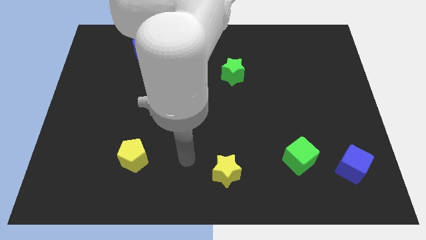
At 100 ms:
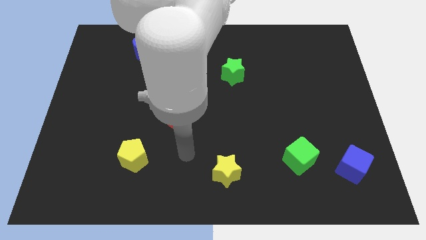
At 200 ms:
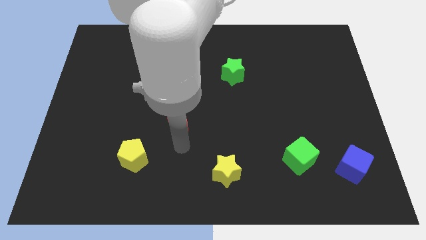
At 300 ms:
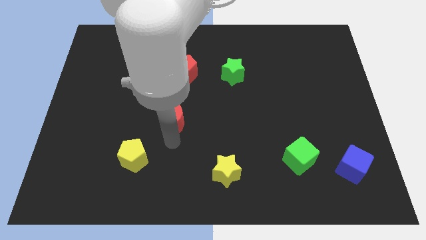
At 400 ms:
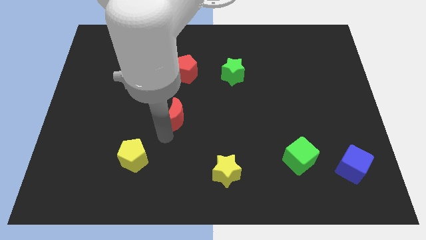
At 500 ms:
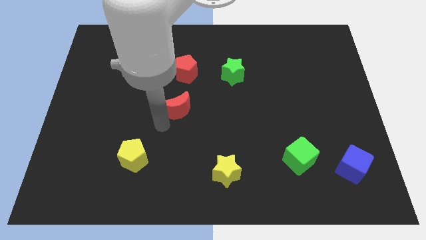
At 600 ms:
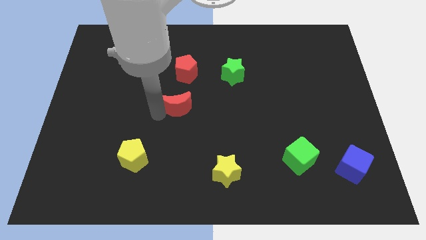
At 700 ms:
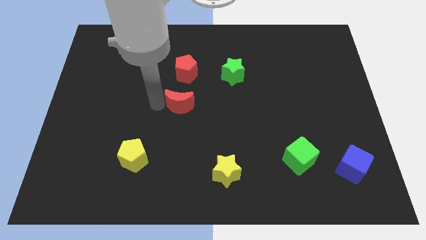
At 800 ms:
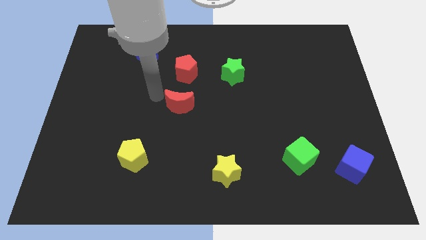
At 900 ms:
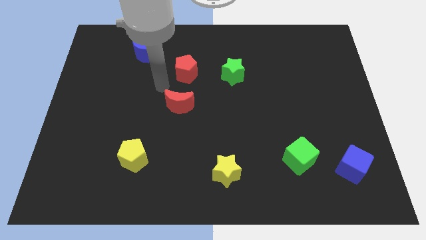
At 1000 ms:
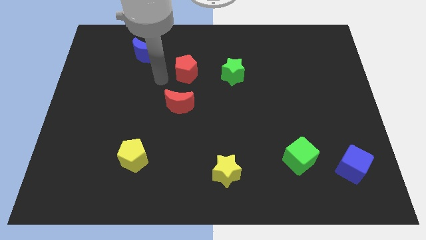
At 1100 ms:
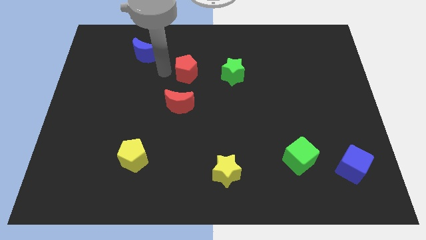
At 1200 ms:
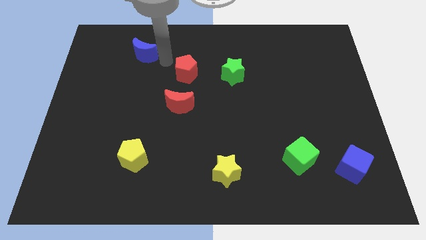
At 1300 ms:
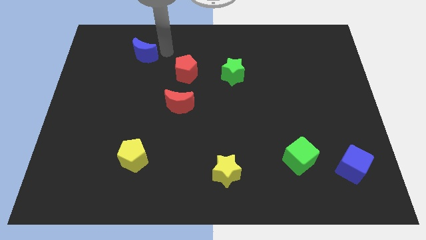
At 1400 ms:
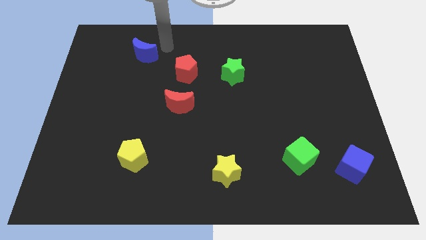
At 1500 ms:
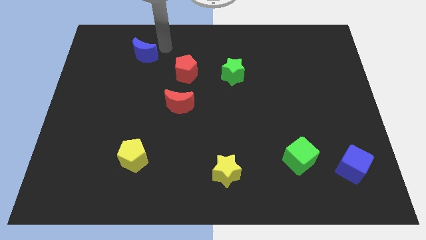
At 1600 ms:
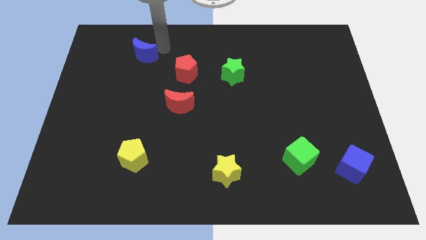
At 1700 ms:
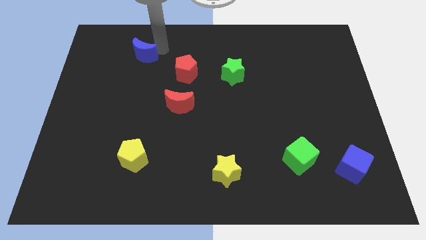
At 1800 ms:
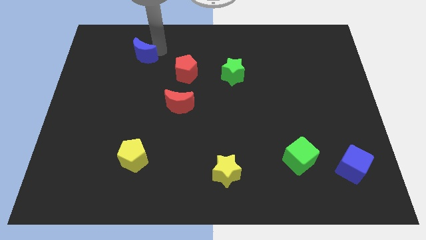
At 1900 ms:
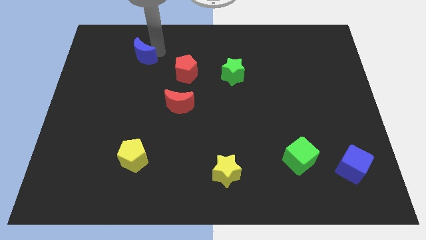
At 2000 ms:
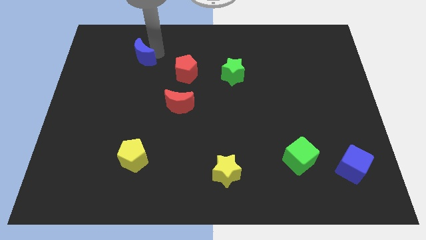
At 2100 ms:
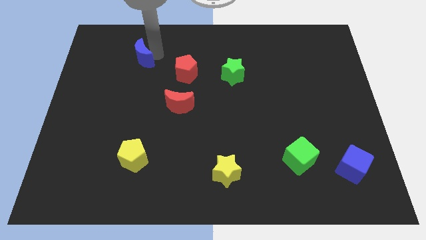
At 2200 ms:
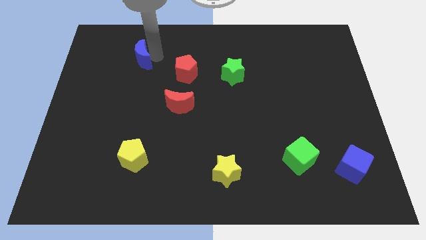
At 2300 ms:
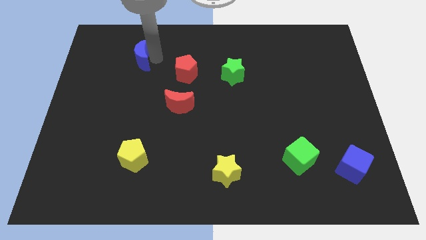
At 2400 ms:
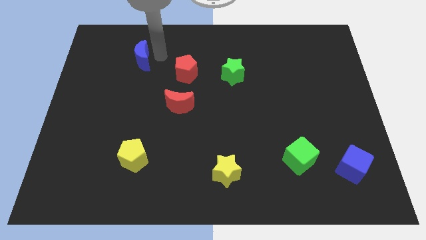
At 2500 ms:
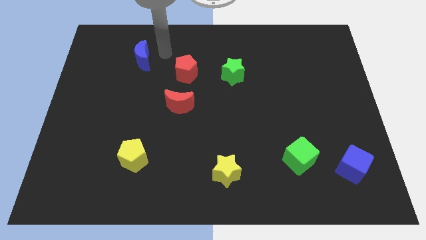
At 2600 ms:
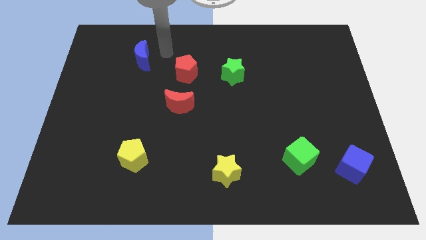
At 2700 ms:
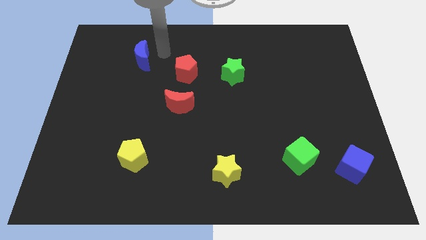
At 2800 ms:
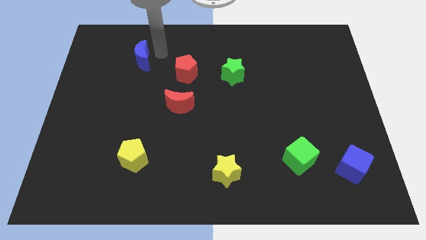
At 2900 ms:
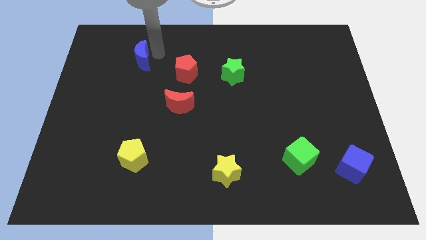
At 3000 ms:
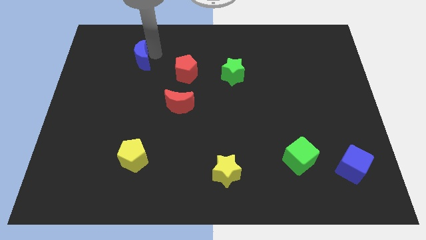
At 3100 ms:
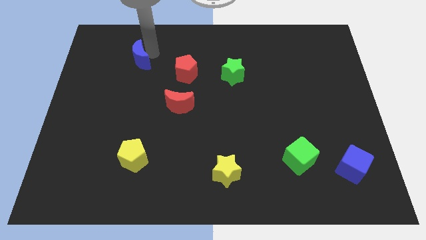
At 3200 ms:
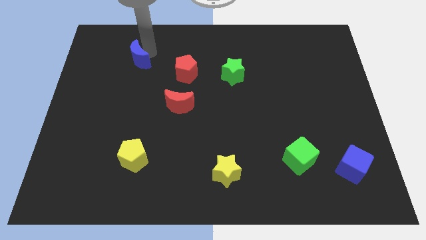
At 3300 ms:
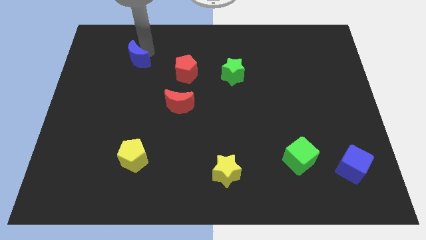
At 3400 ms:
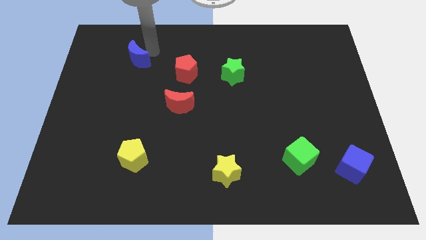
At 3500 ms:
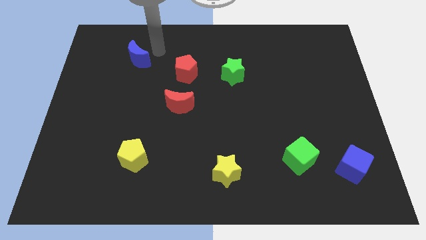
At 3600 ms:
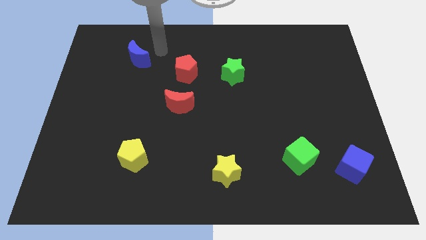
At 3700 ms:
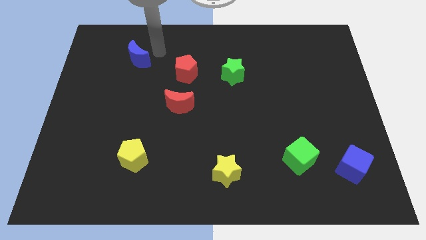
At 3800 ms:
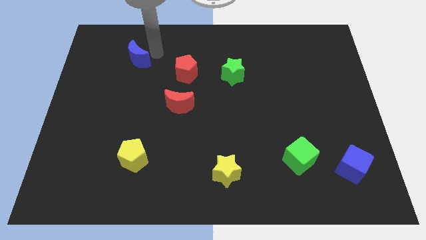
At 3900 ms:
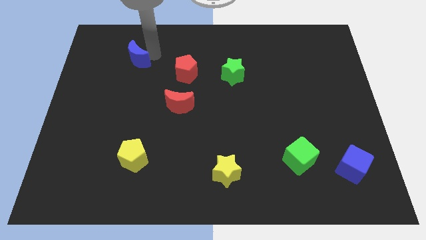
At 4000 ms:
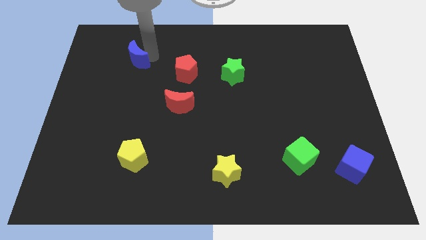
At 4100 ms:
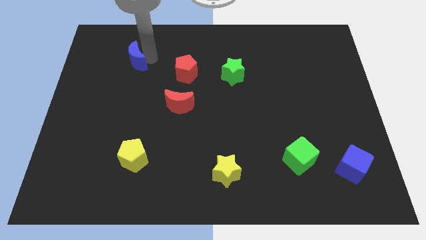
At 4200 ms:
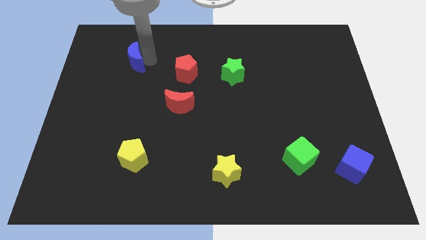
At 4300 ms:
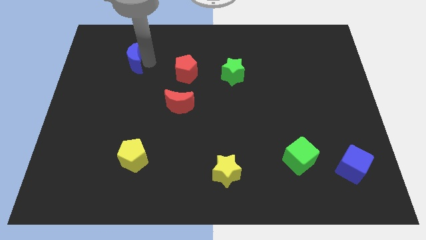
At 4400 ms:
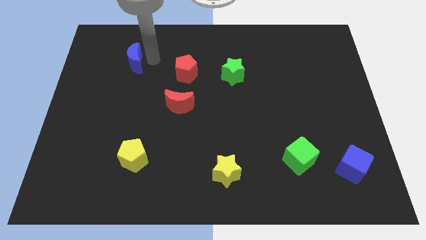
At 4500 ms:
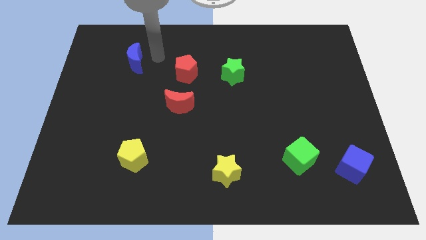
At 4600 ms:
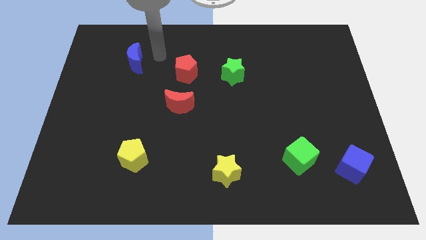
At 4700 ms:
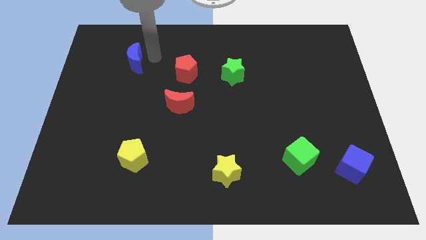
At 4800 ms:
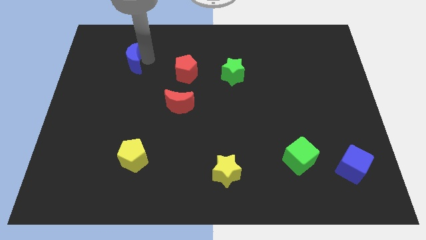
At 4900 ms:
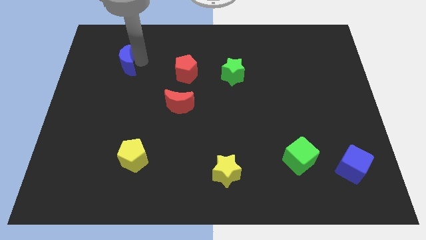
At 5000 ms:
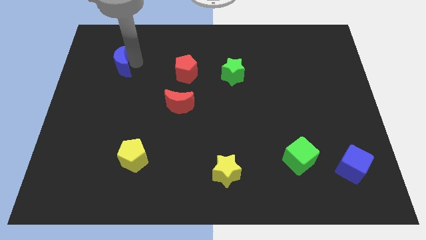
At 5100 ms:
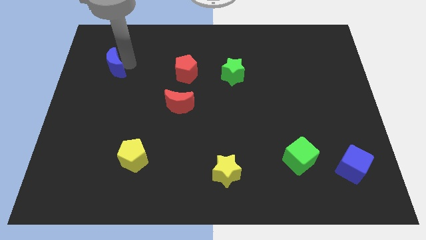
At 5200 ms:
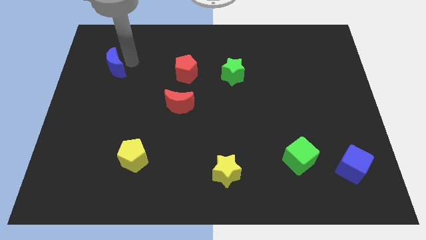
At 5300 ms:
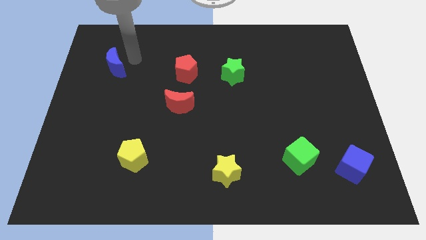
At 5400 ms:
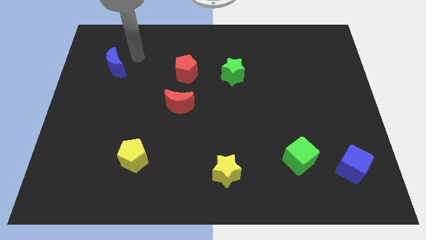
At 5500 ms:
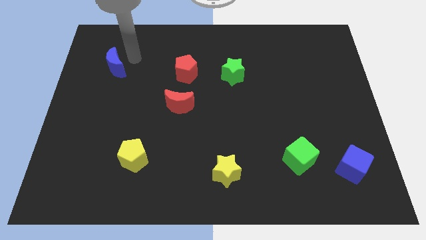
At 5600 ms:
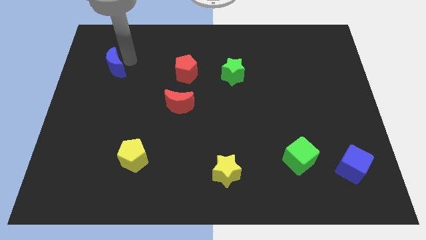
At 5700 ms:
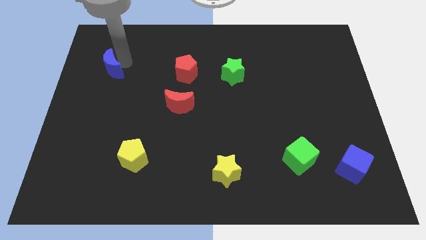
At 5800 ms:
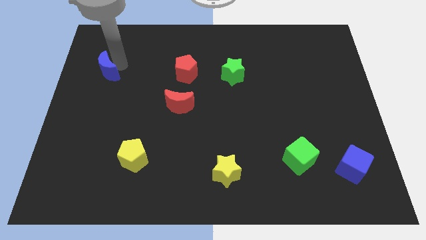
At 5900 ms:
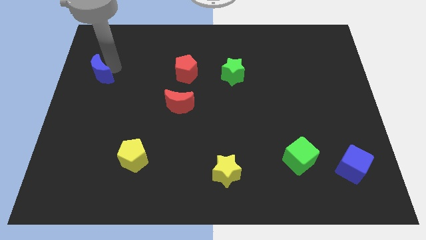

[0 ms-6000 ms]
put the blue moon to the left side of the board

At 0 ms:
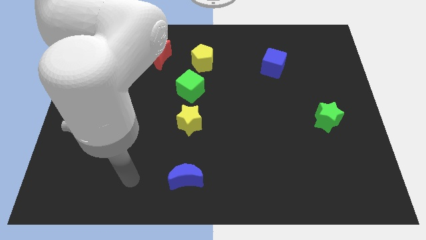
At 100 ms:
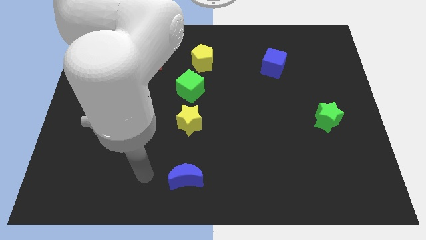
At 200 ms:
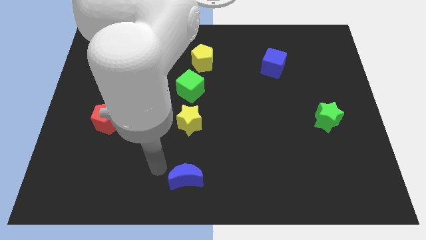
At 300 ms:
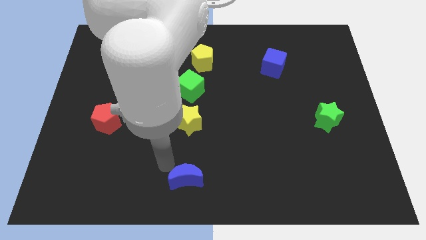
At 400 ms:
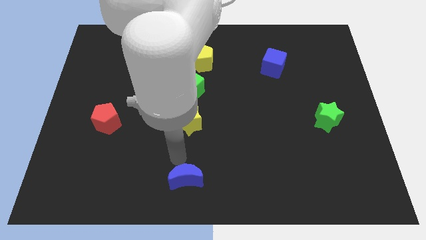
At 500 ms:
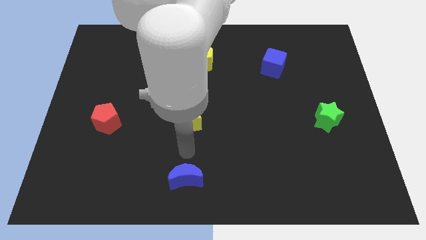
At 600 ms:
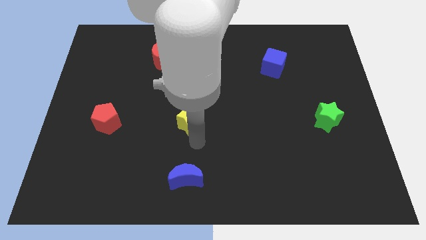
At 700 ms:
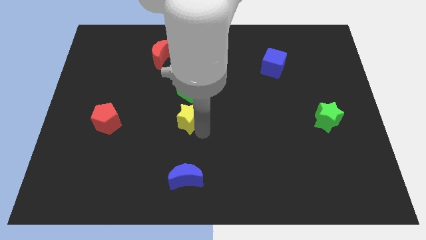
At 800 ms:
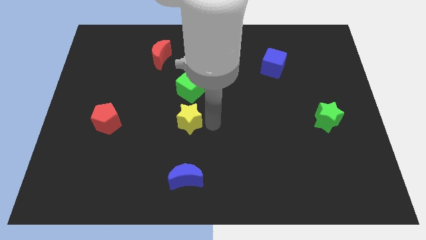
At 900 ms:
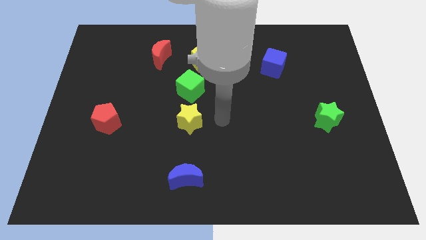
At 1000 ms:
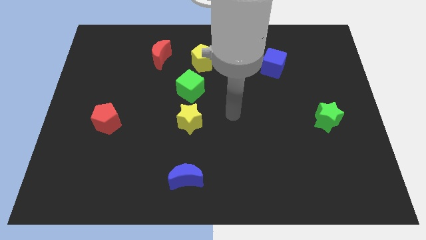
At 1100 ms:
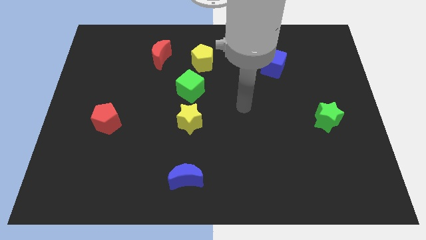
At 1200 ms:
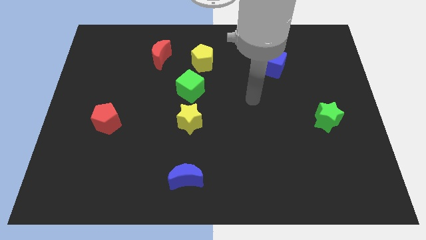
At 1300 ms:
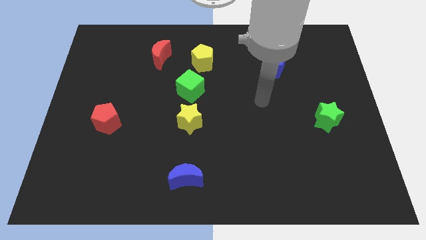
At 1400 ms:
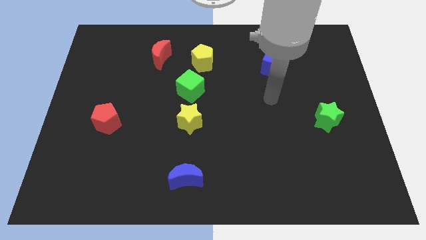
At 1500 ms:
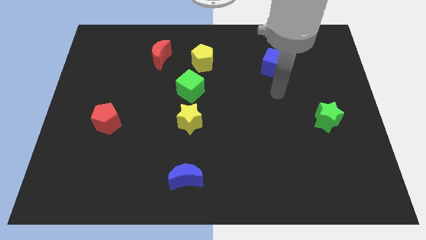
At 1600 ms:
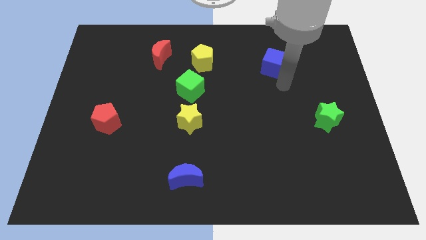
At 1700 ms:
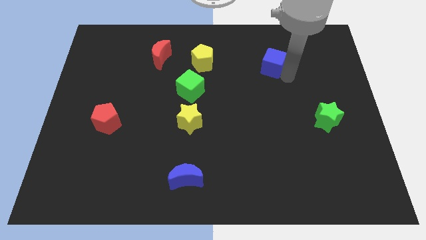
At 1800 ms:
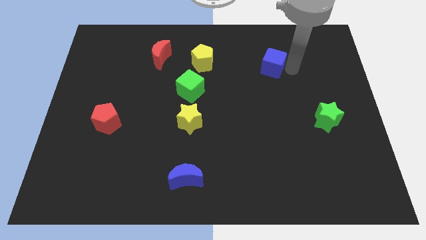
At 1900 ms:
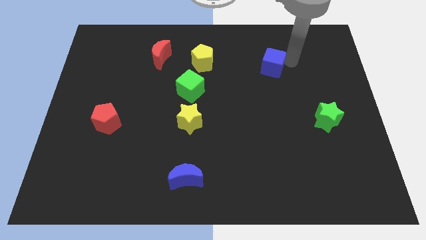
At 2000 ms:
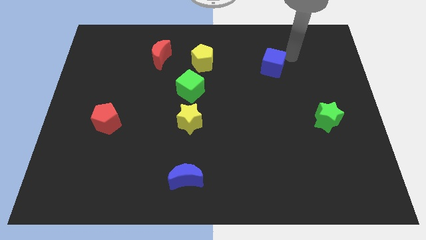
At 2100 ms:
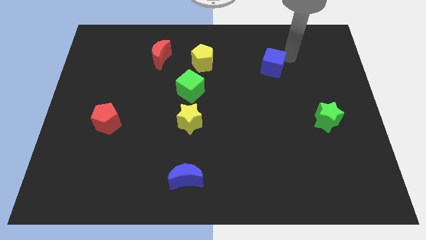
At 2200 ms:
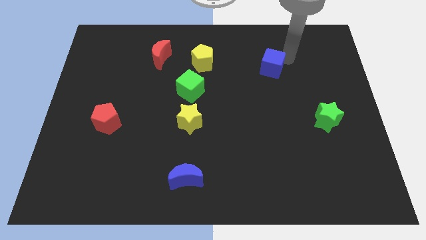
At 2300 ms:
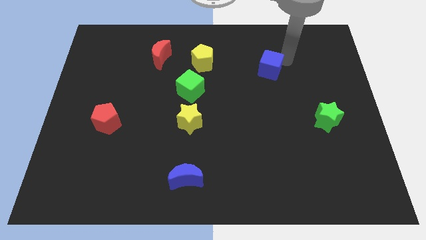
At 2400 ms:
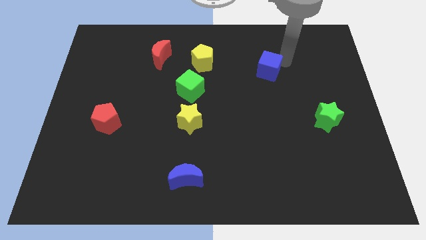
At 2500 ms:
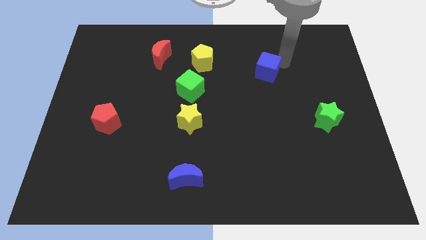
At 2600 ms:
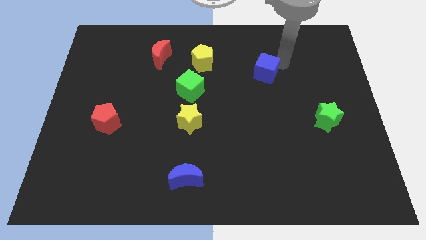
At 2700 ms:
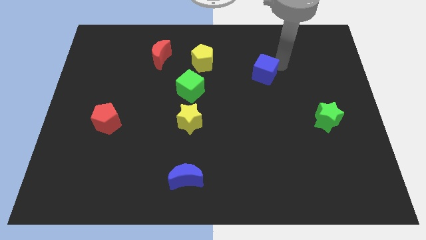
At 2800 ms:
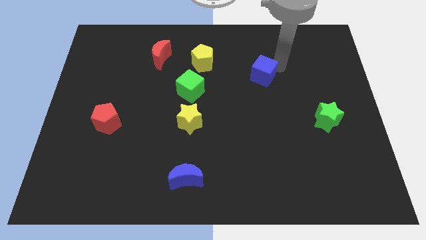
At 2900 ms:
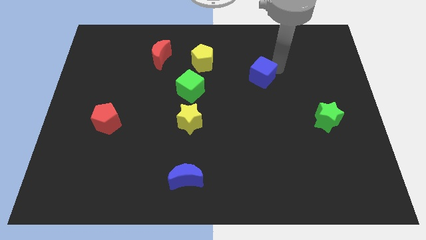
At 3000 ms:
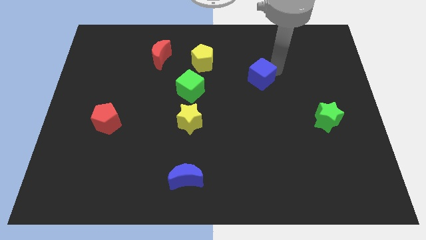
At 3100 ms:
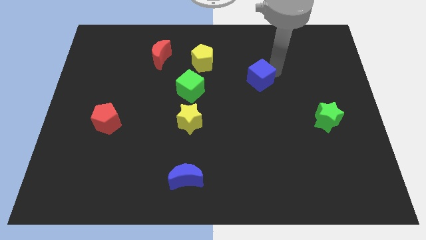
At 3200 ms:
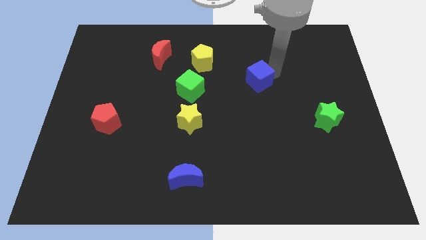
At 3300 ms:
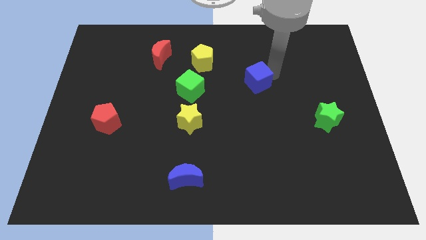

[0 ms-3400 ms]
put the blue cube to the middle
